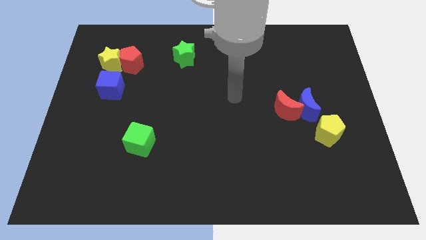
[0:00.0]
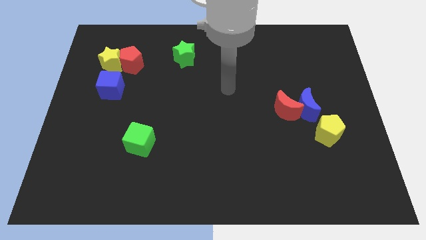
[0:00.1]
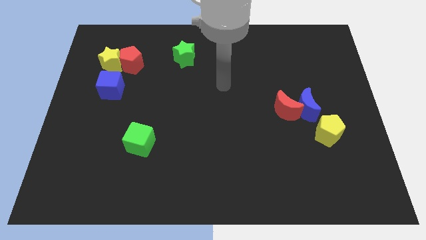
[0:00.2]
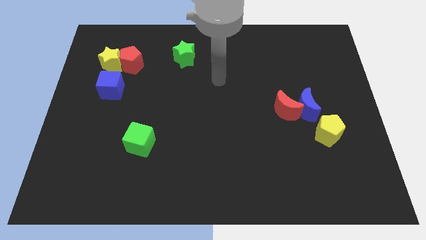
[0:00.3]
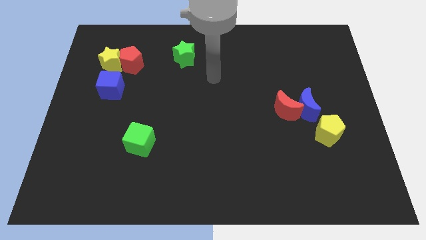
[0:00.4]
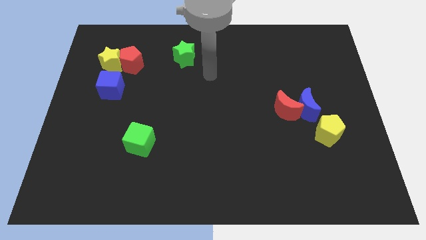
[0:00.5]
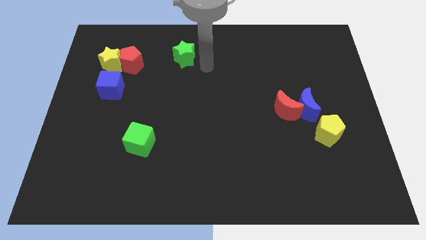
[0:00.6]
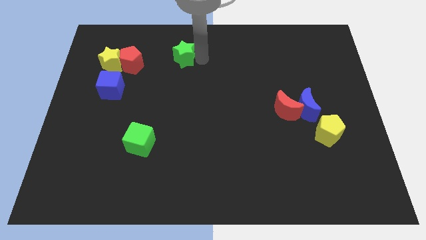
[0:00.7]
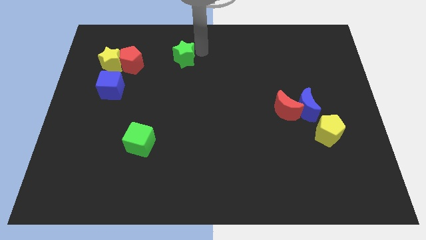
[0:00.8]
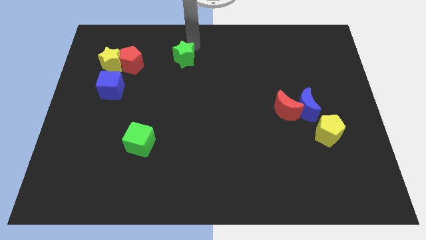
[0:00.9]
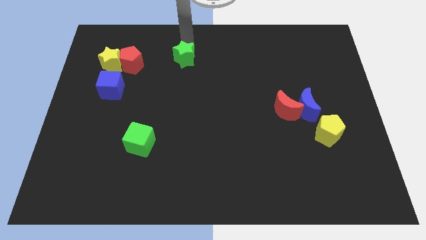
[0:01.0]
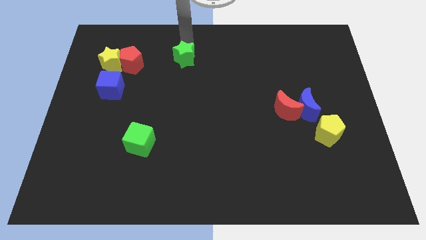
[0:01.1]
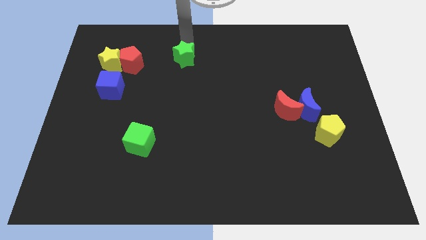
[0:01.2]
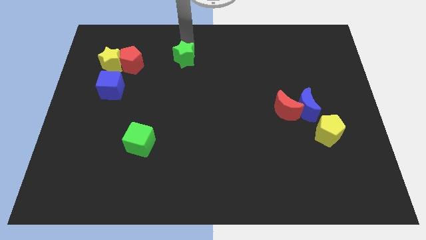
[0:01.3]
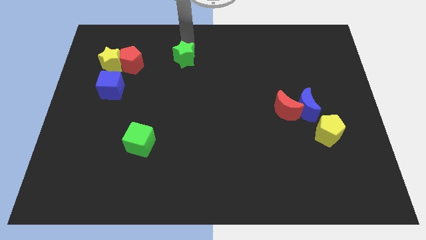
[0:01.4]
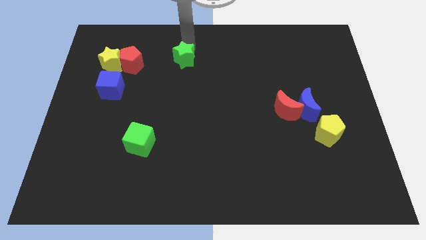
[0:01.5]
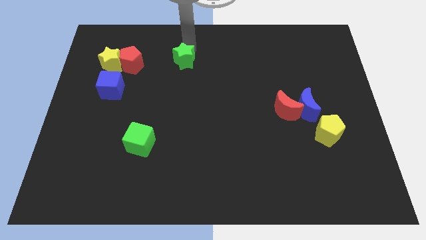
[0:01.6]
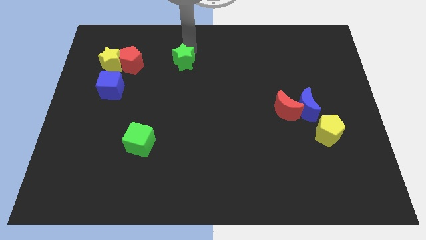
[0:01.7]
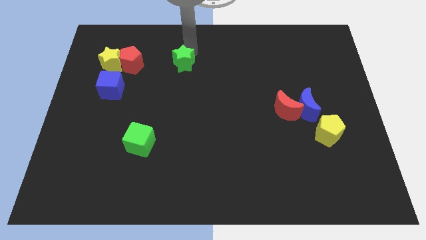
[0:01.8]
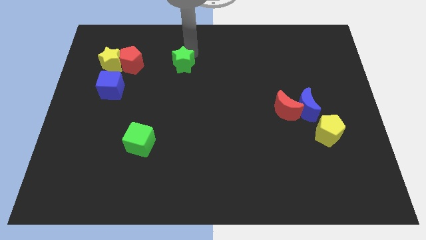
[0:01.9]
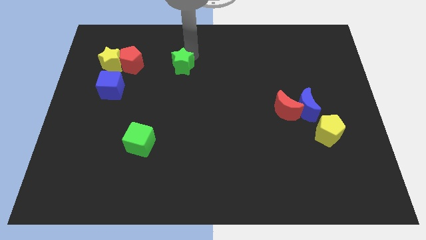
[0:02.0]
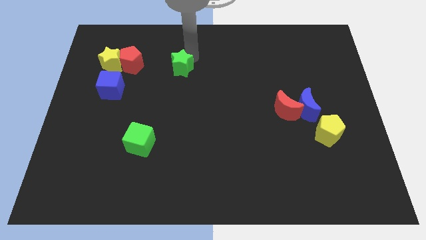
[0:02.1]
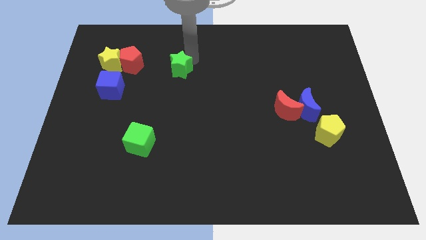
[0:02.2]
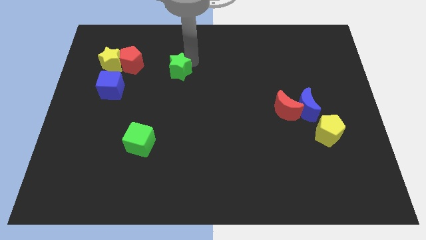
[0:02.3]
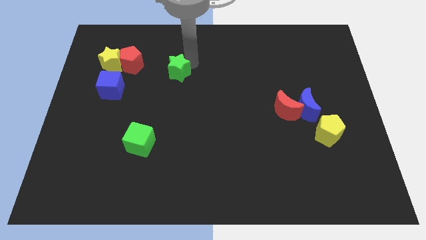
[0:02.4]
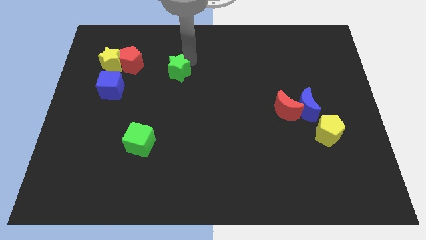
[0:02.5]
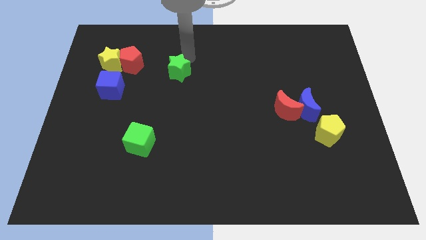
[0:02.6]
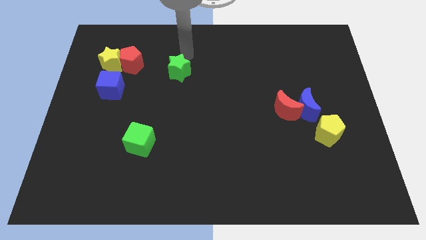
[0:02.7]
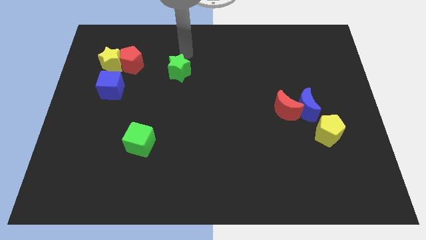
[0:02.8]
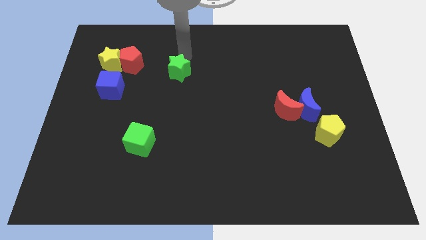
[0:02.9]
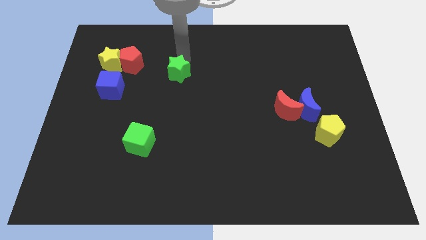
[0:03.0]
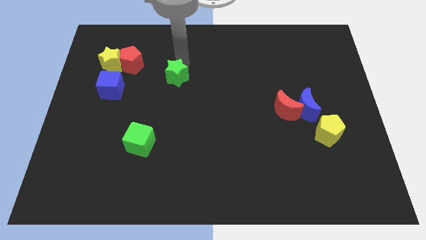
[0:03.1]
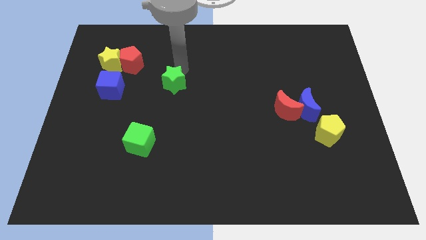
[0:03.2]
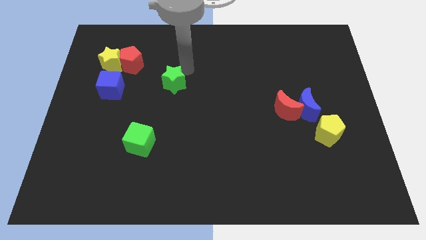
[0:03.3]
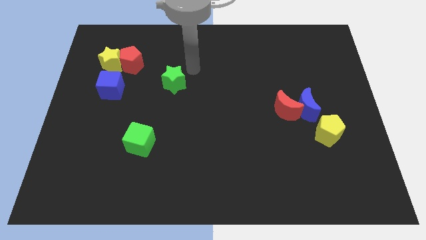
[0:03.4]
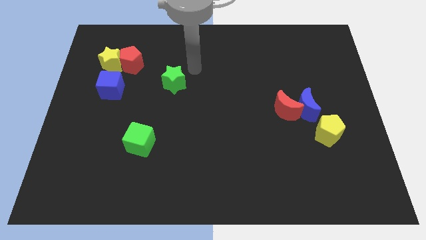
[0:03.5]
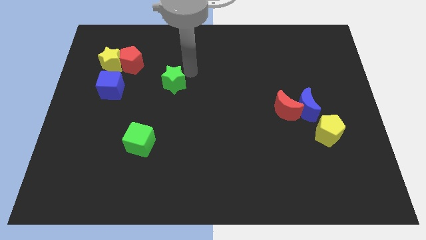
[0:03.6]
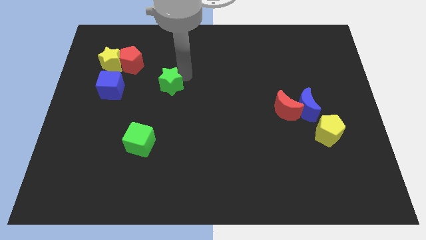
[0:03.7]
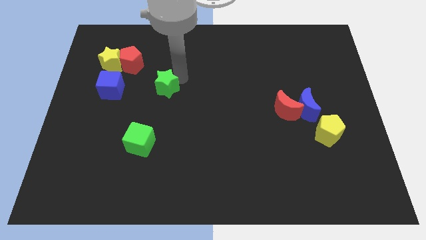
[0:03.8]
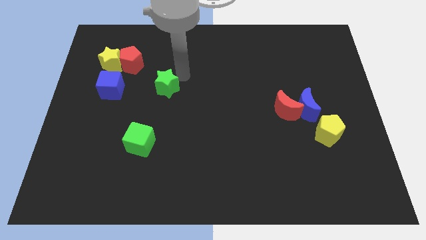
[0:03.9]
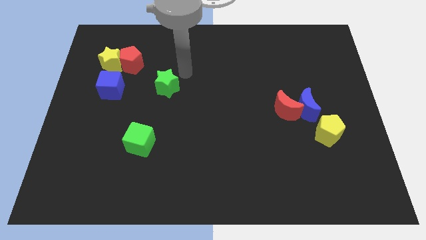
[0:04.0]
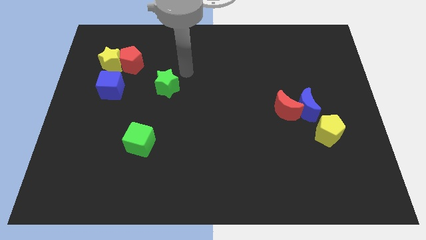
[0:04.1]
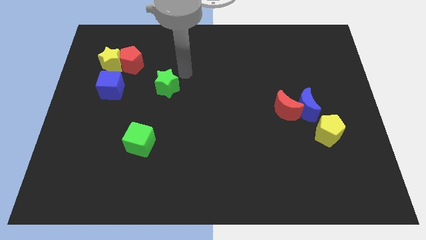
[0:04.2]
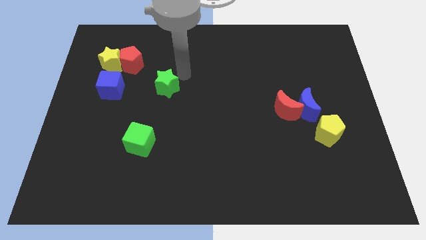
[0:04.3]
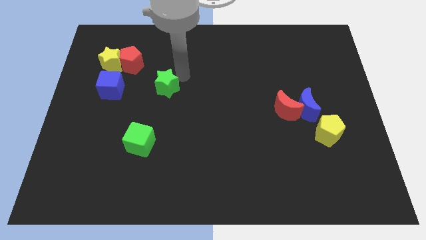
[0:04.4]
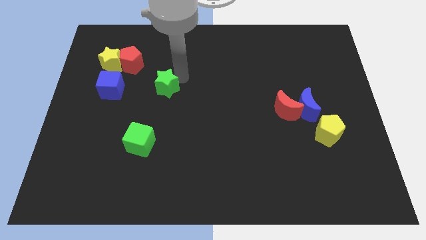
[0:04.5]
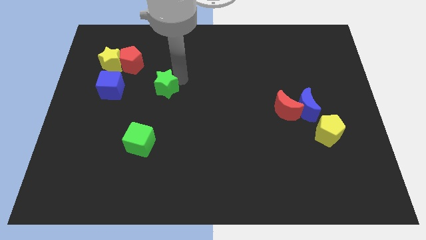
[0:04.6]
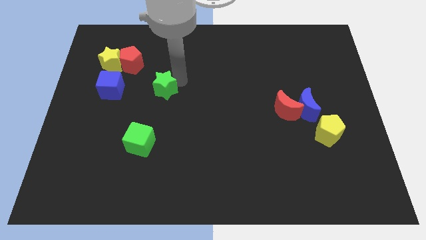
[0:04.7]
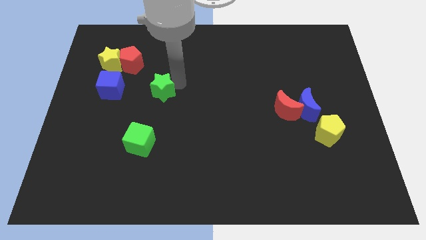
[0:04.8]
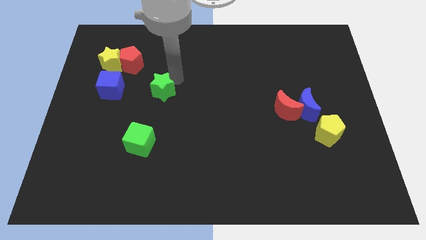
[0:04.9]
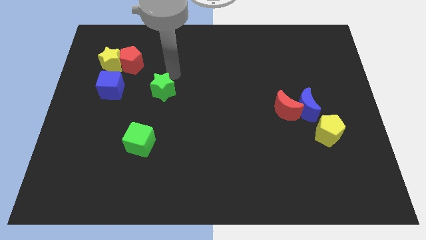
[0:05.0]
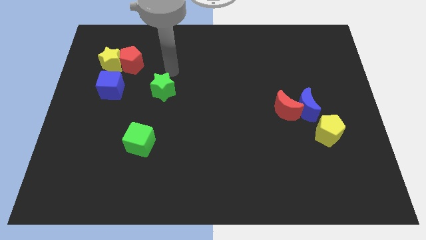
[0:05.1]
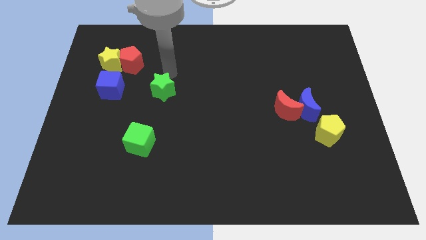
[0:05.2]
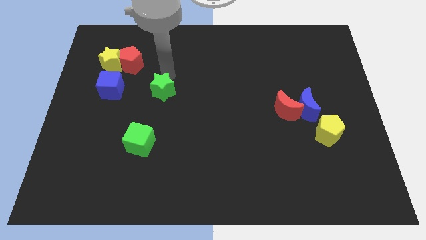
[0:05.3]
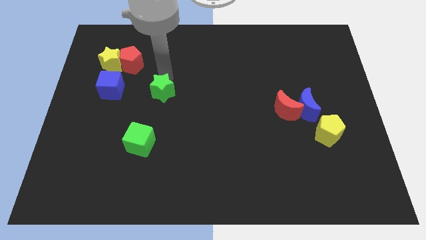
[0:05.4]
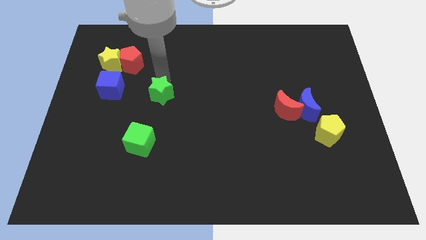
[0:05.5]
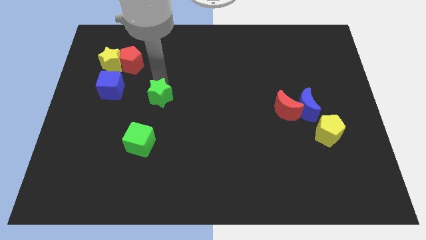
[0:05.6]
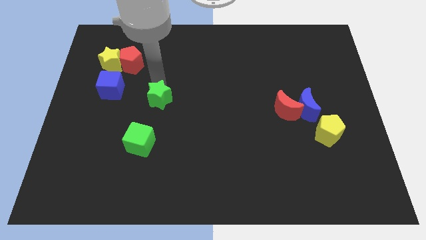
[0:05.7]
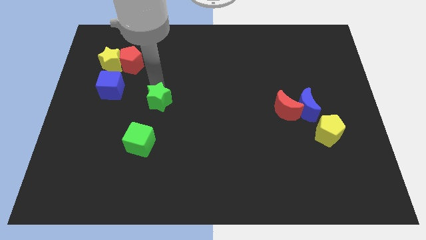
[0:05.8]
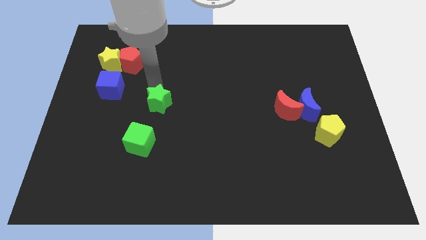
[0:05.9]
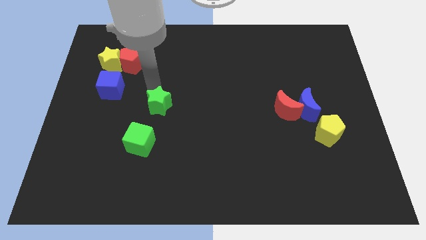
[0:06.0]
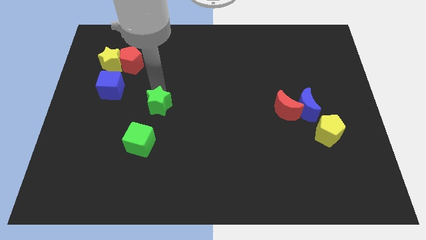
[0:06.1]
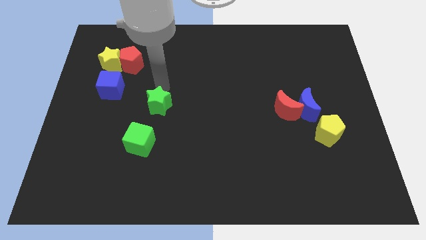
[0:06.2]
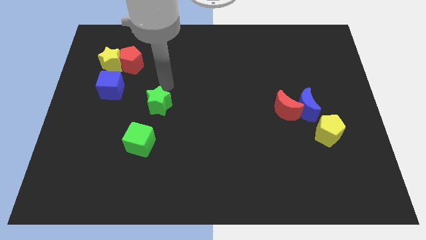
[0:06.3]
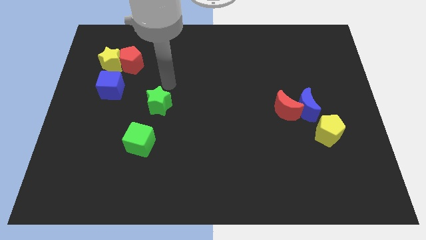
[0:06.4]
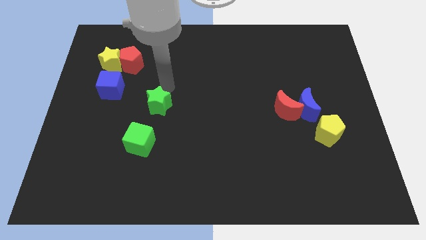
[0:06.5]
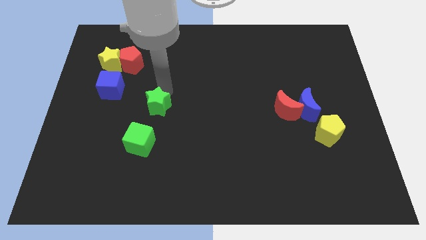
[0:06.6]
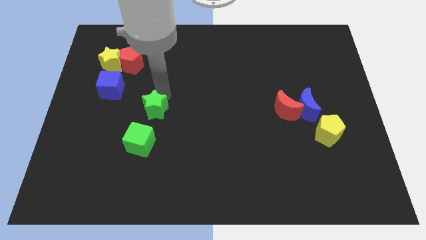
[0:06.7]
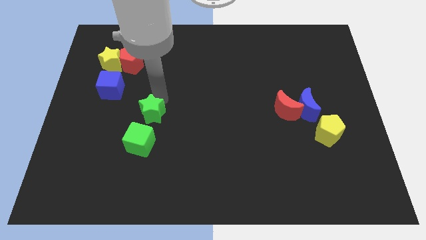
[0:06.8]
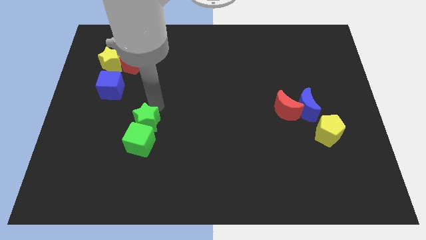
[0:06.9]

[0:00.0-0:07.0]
slide the green star next to the green cube
